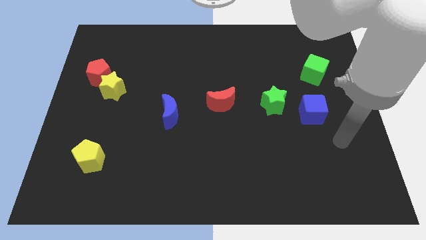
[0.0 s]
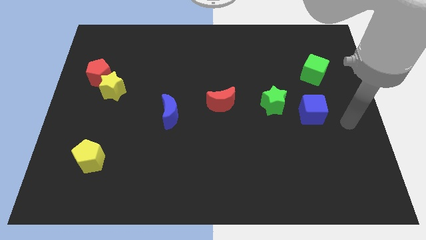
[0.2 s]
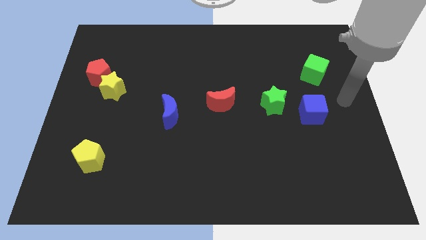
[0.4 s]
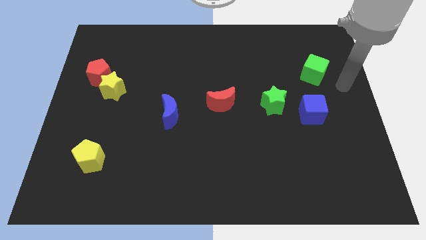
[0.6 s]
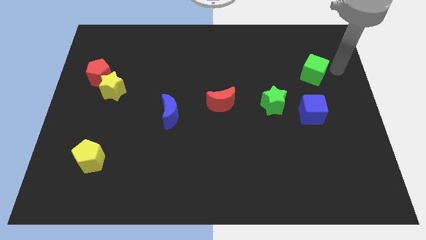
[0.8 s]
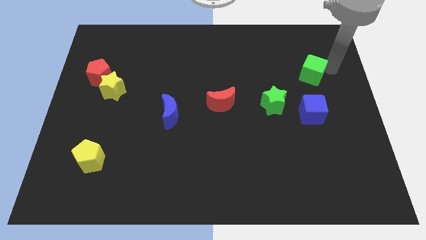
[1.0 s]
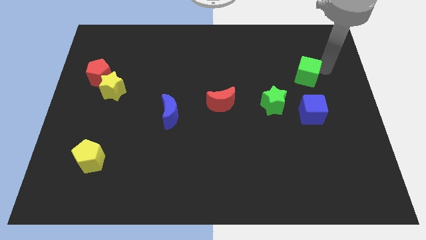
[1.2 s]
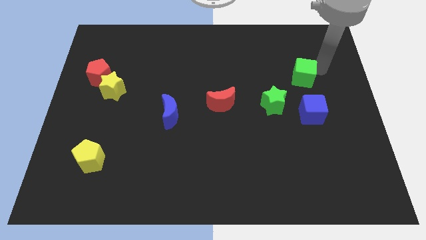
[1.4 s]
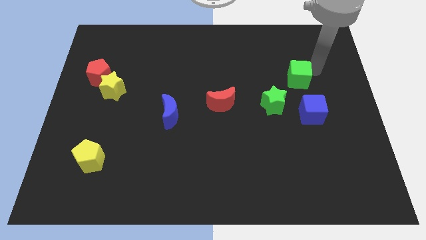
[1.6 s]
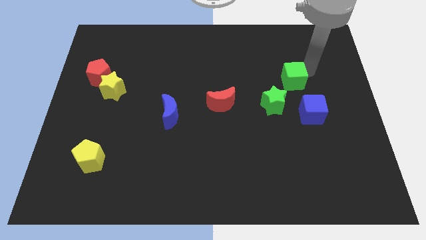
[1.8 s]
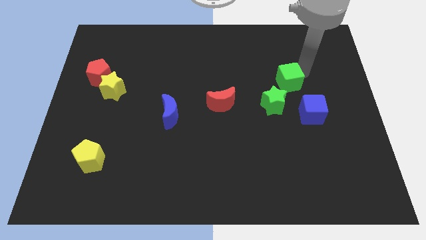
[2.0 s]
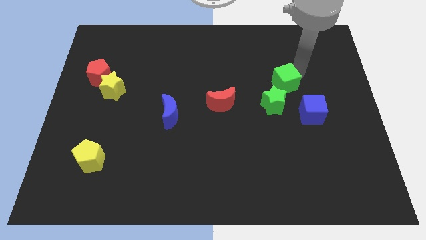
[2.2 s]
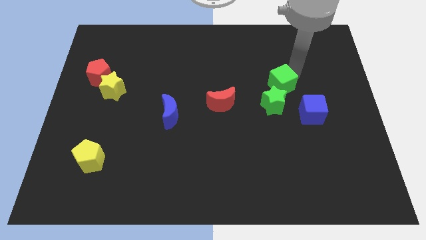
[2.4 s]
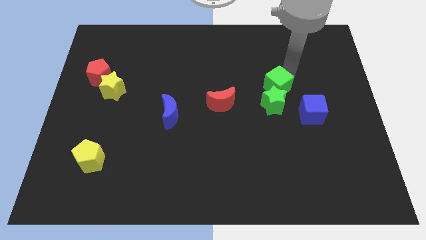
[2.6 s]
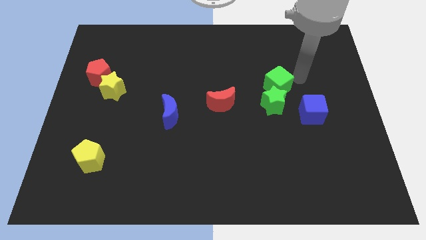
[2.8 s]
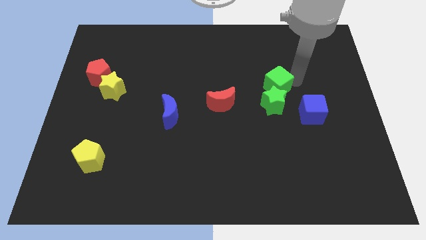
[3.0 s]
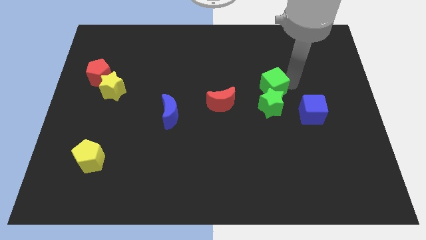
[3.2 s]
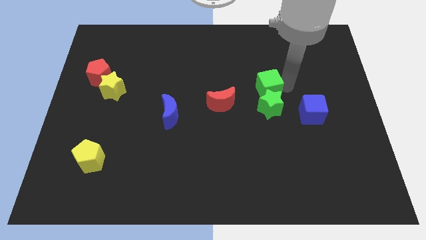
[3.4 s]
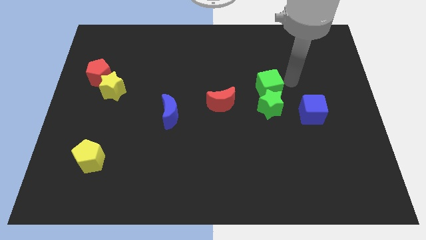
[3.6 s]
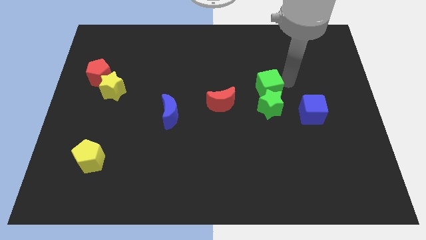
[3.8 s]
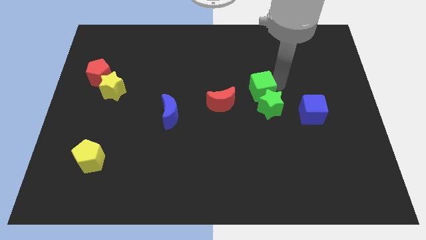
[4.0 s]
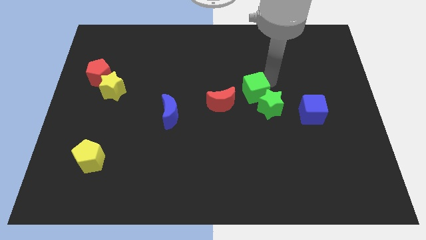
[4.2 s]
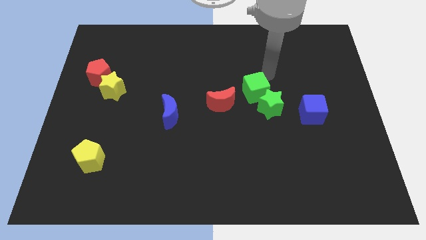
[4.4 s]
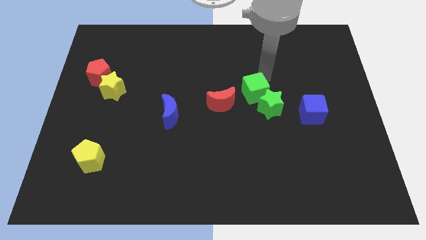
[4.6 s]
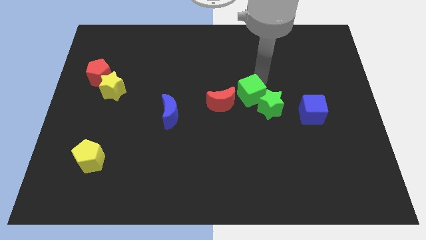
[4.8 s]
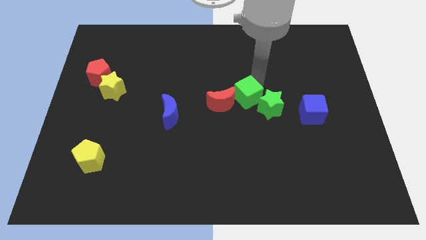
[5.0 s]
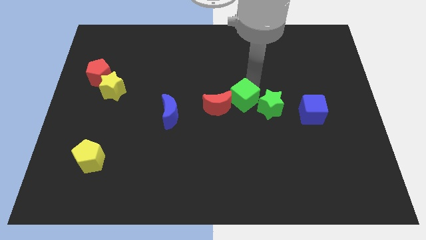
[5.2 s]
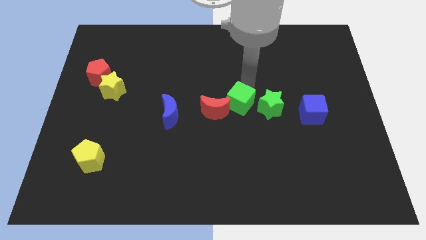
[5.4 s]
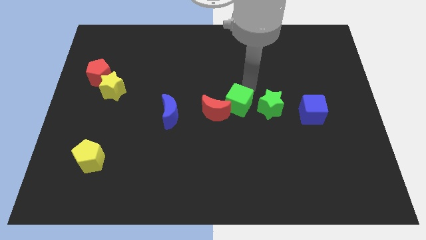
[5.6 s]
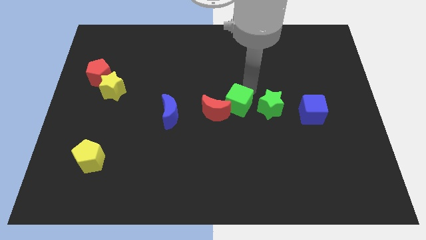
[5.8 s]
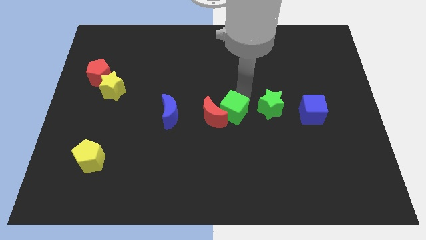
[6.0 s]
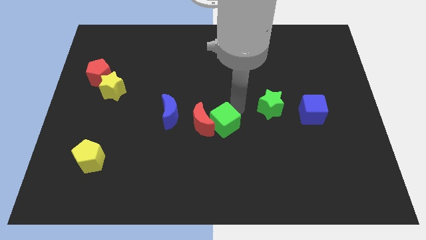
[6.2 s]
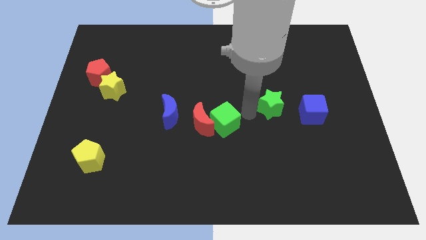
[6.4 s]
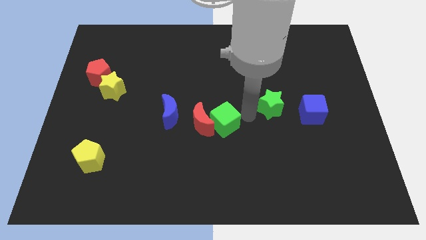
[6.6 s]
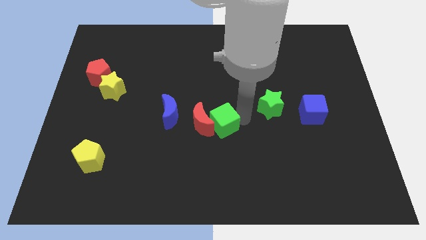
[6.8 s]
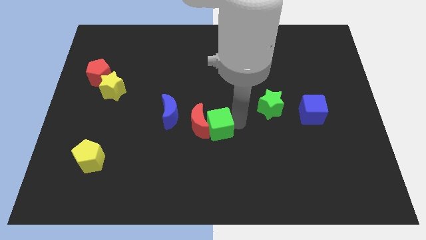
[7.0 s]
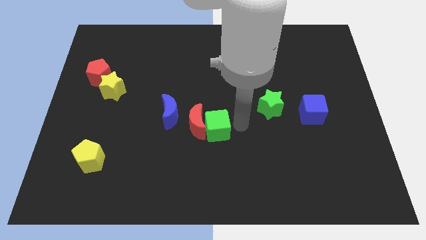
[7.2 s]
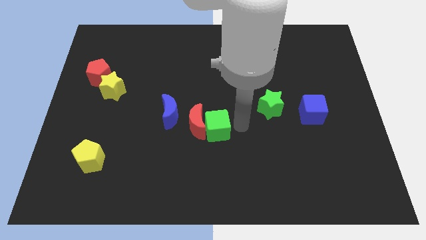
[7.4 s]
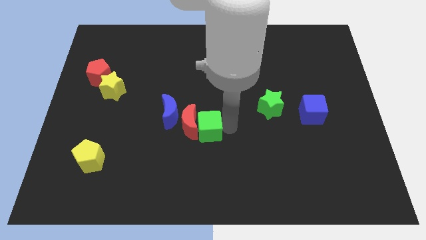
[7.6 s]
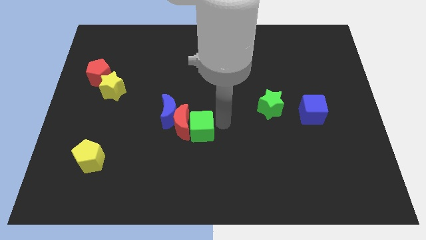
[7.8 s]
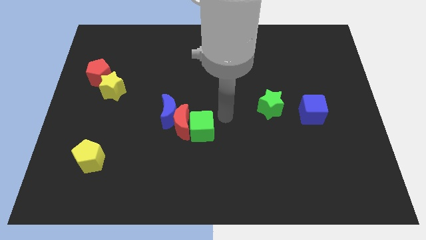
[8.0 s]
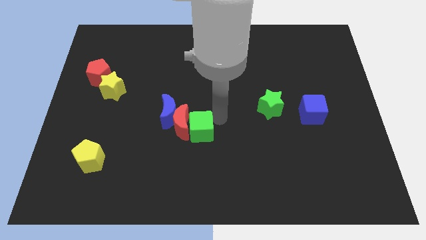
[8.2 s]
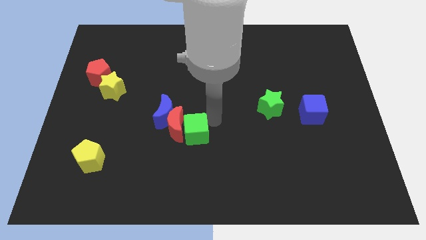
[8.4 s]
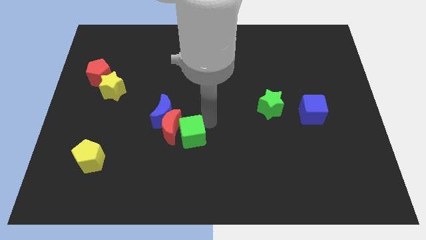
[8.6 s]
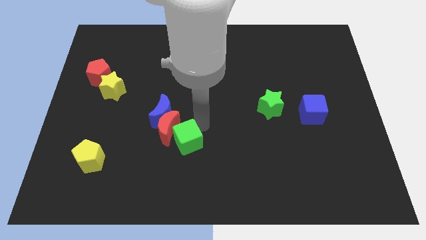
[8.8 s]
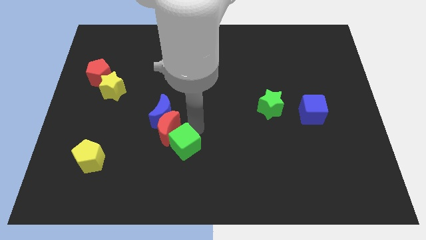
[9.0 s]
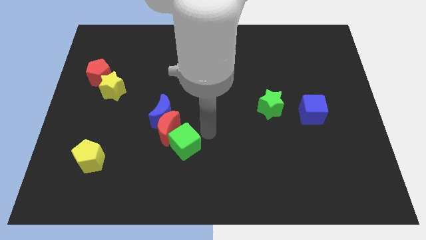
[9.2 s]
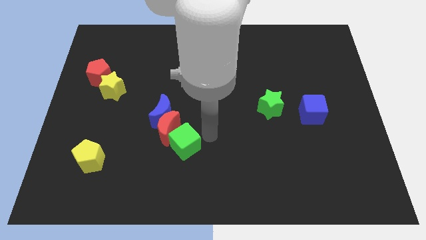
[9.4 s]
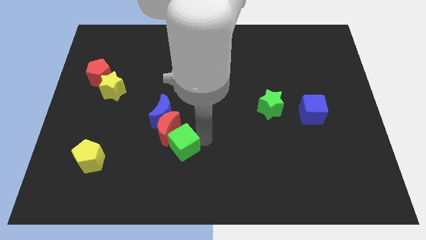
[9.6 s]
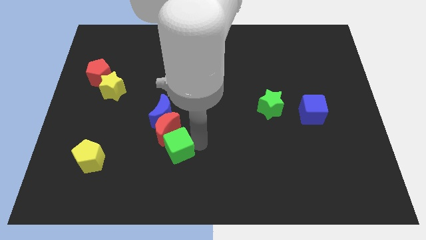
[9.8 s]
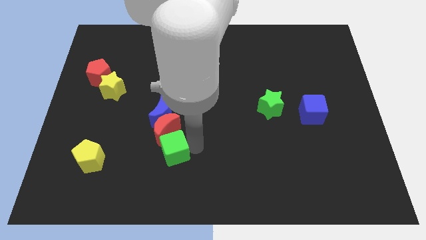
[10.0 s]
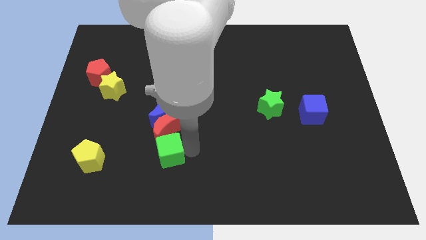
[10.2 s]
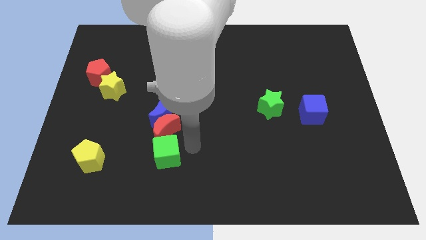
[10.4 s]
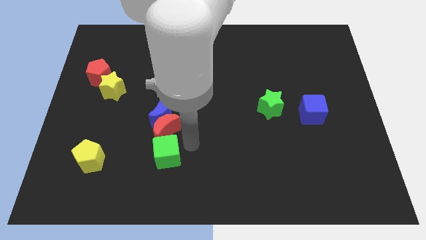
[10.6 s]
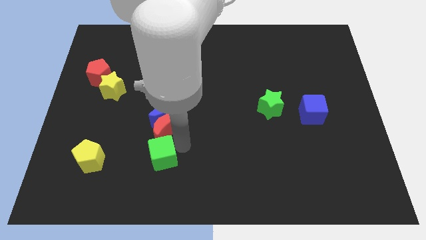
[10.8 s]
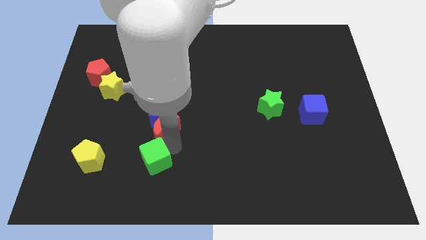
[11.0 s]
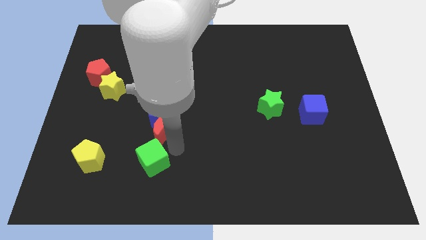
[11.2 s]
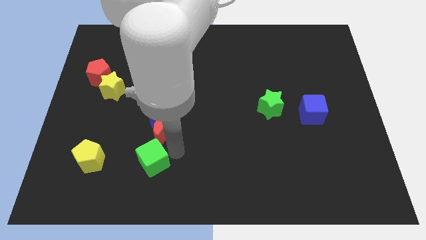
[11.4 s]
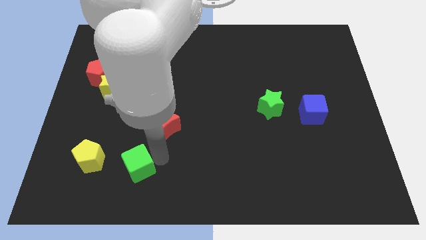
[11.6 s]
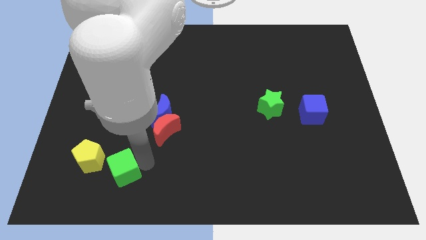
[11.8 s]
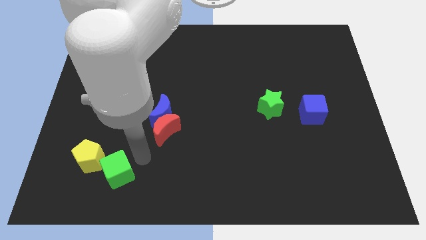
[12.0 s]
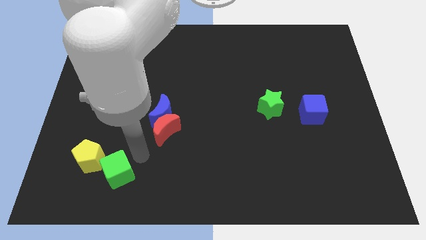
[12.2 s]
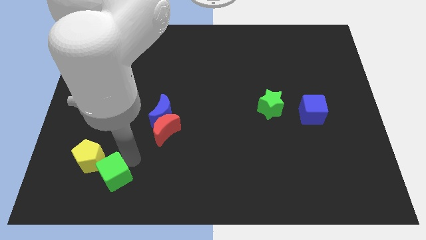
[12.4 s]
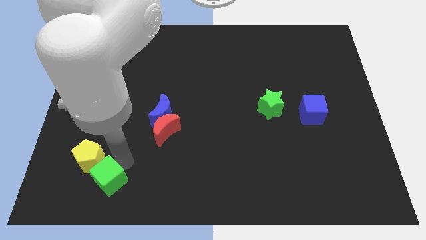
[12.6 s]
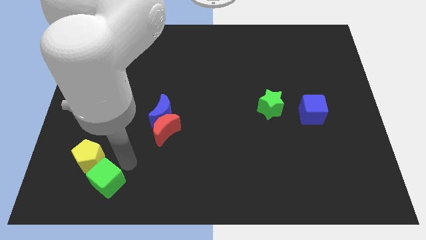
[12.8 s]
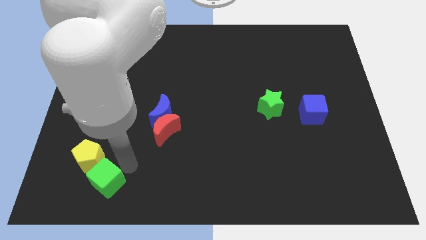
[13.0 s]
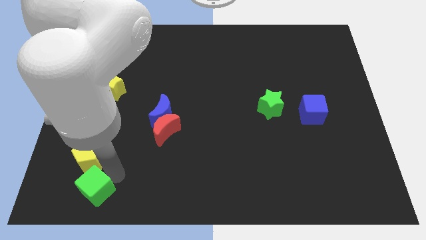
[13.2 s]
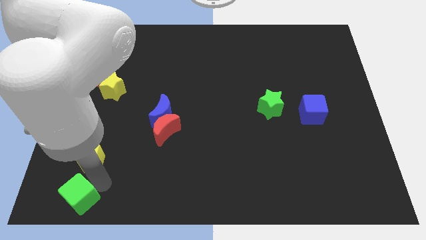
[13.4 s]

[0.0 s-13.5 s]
slide the green cube to the lower left corner

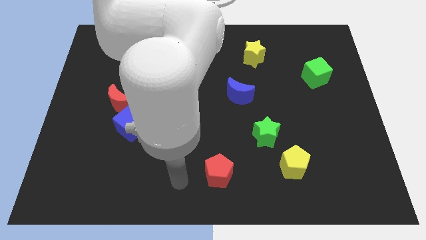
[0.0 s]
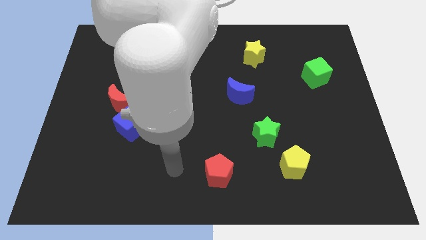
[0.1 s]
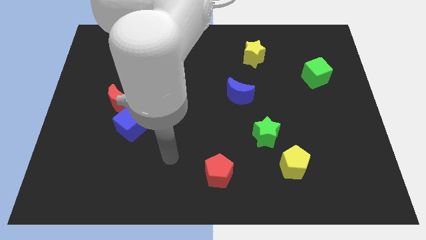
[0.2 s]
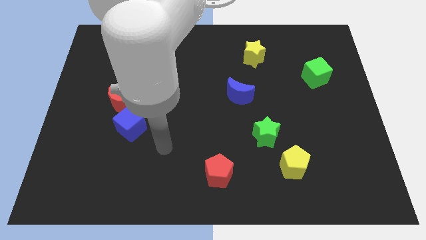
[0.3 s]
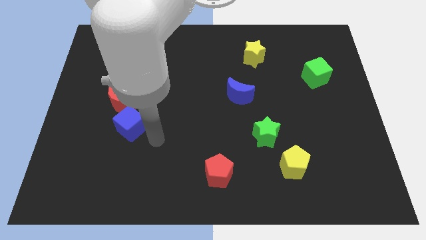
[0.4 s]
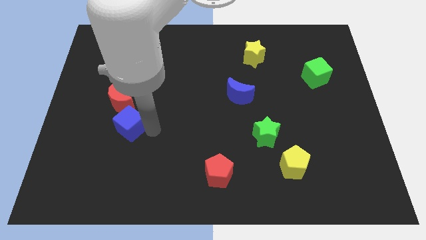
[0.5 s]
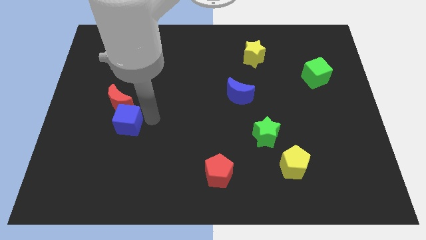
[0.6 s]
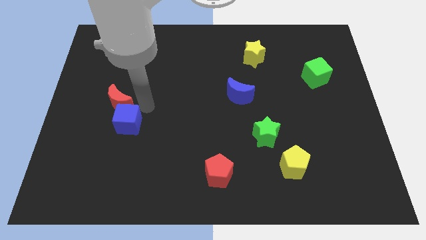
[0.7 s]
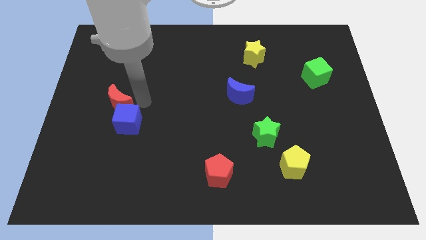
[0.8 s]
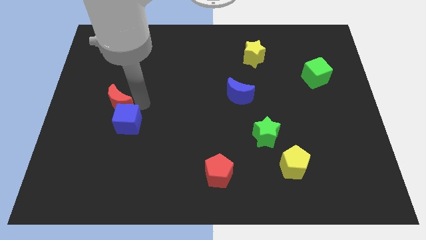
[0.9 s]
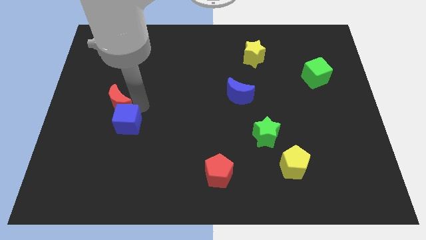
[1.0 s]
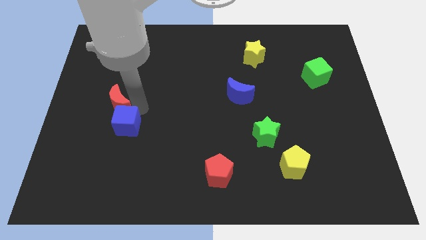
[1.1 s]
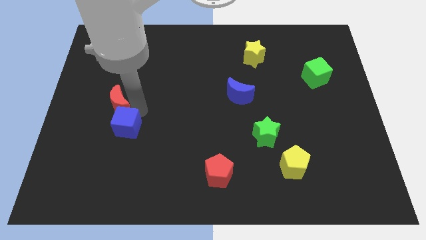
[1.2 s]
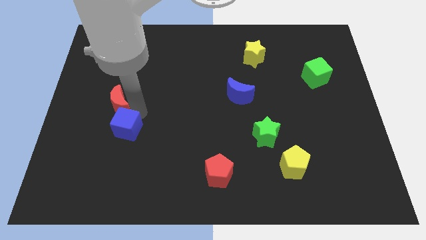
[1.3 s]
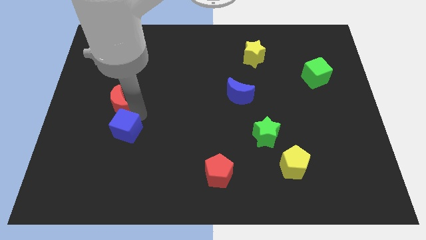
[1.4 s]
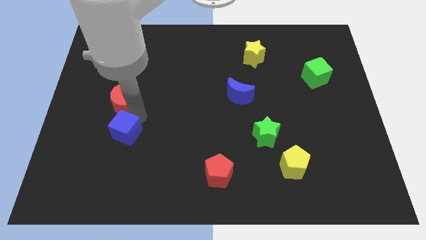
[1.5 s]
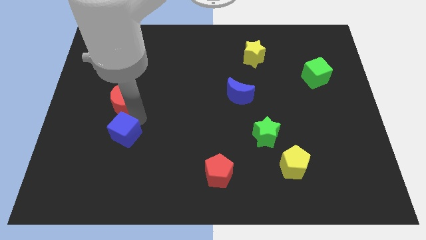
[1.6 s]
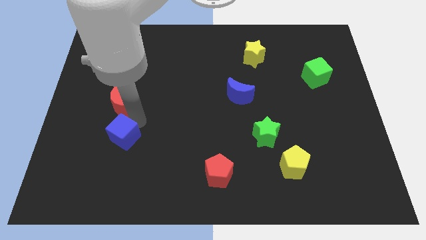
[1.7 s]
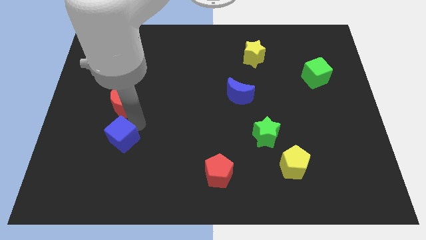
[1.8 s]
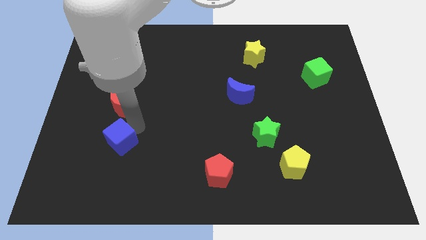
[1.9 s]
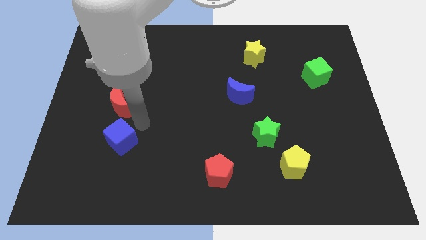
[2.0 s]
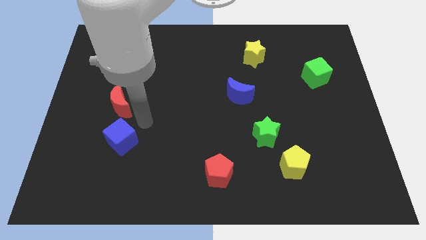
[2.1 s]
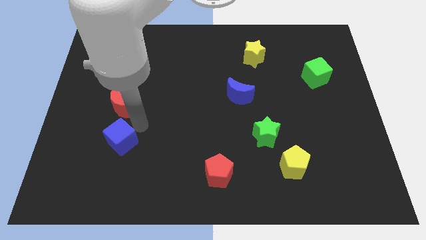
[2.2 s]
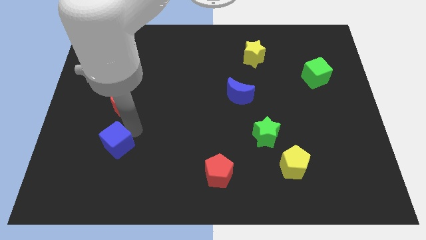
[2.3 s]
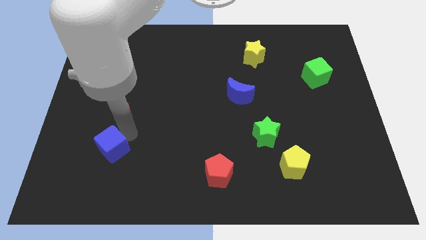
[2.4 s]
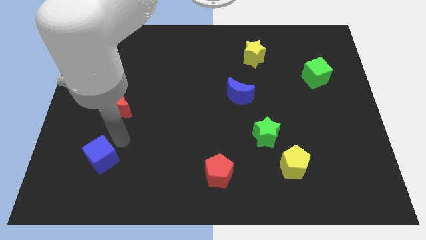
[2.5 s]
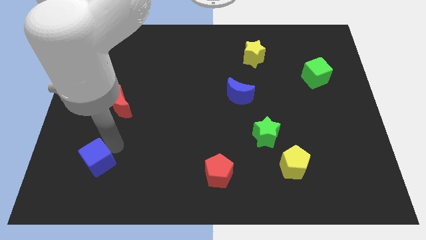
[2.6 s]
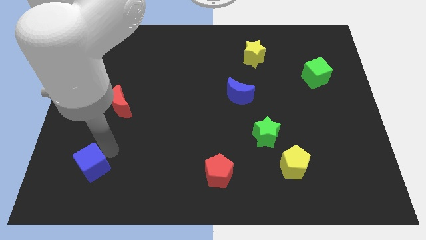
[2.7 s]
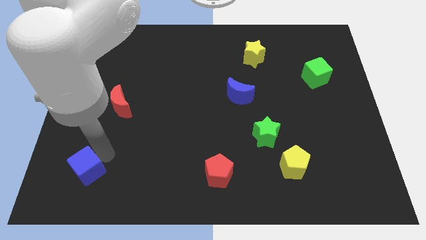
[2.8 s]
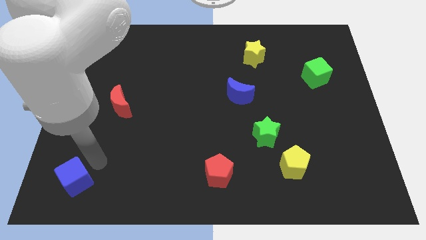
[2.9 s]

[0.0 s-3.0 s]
put the blue cube to the bottom left
